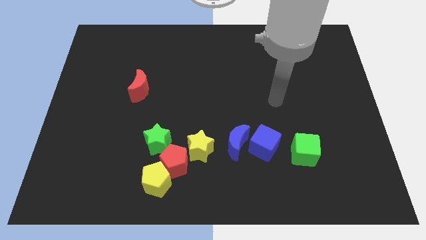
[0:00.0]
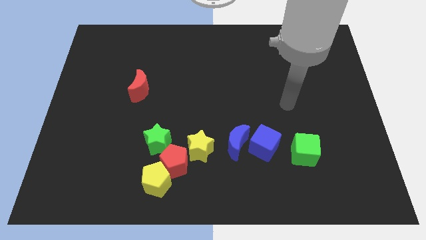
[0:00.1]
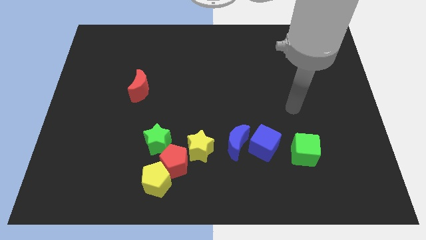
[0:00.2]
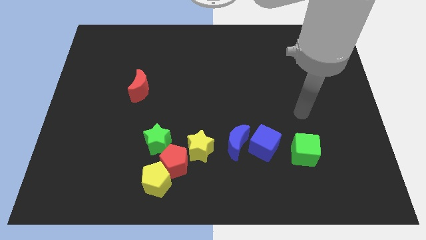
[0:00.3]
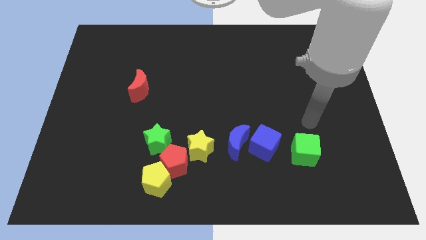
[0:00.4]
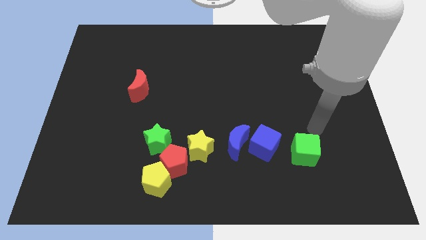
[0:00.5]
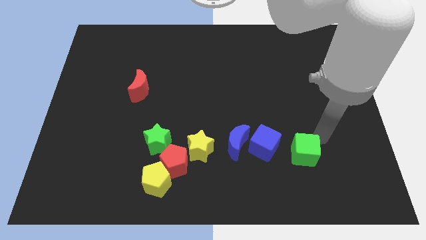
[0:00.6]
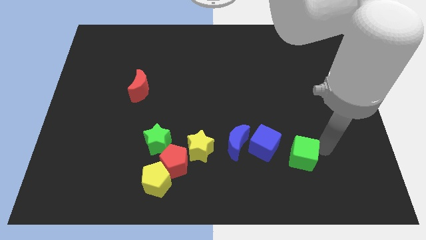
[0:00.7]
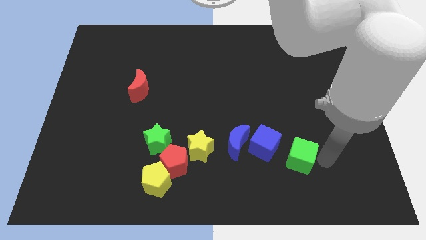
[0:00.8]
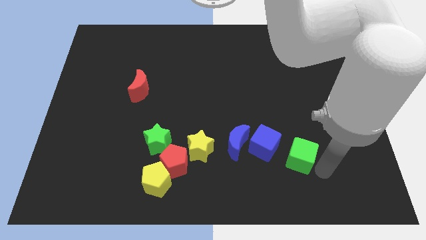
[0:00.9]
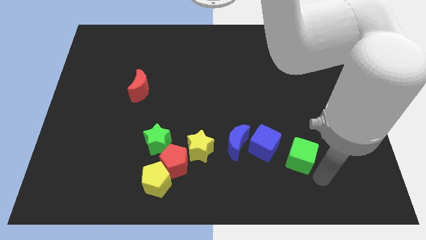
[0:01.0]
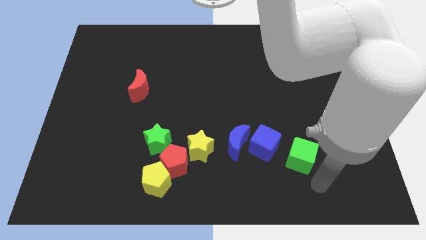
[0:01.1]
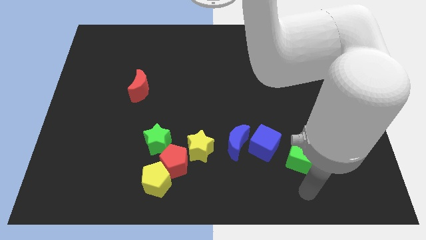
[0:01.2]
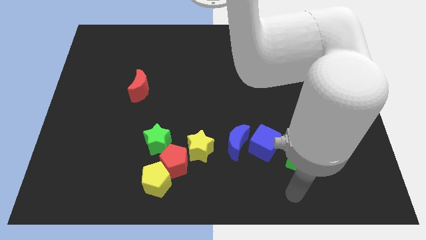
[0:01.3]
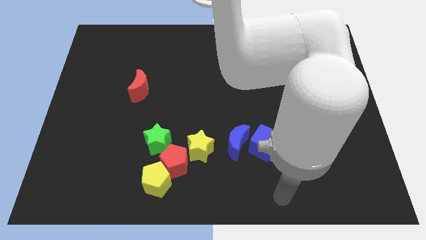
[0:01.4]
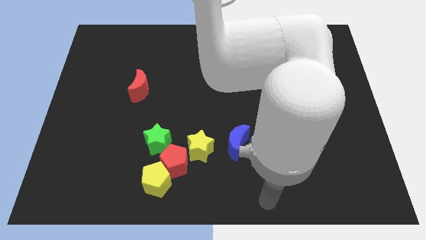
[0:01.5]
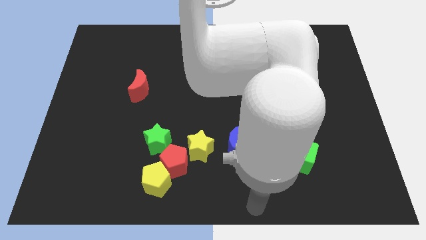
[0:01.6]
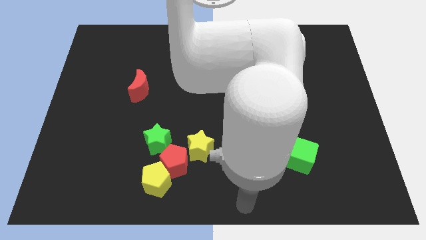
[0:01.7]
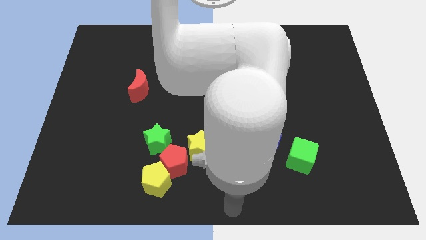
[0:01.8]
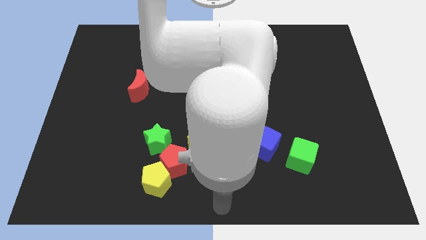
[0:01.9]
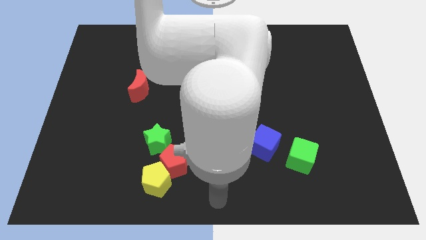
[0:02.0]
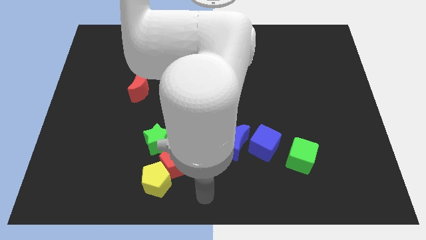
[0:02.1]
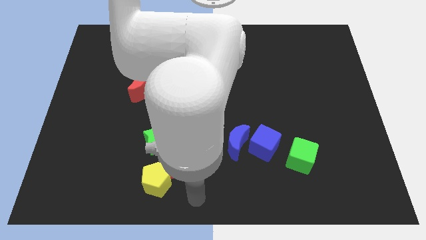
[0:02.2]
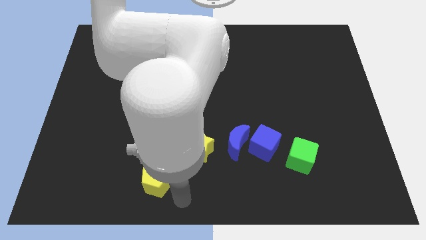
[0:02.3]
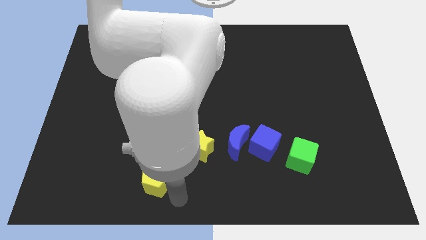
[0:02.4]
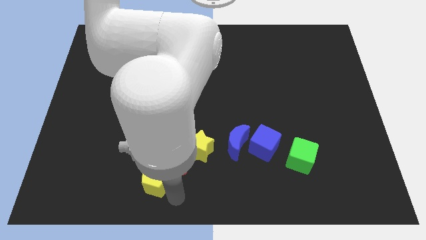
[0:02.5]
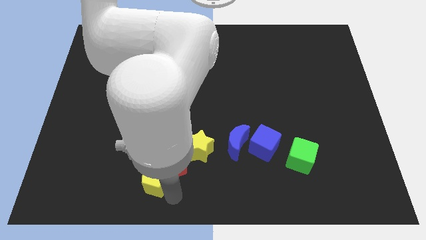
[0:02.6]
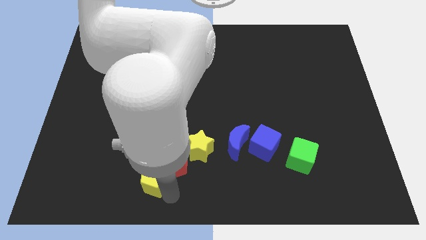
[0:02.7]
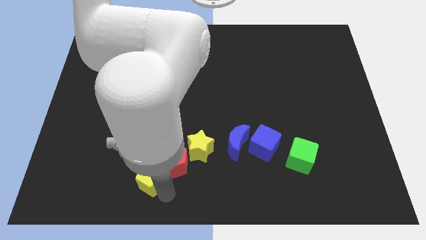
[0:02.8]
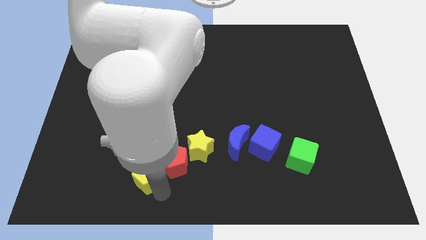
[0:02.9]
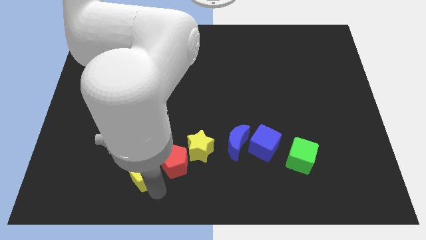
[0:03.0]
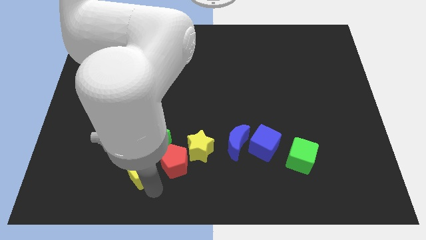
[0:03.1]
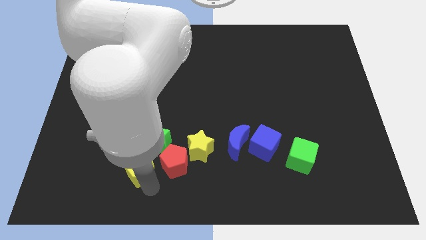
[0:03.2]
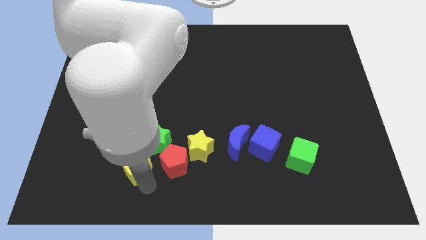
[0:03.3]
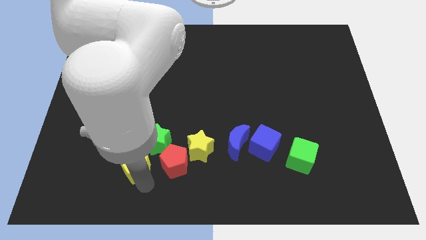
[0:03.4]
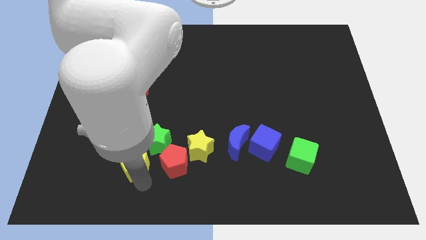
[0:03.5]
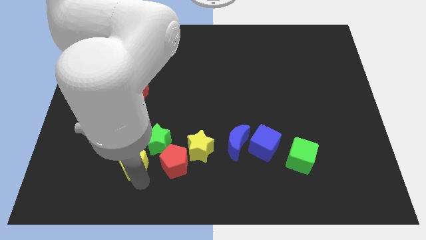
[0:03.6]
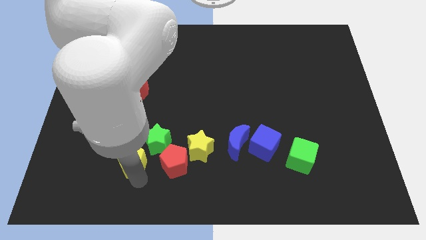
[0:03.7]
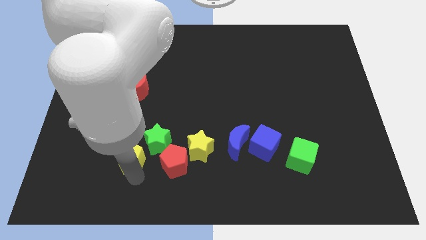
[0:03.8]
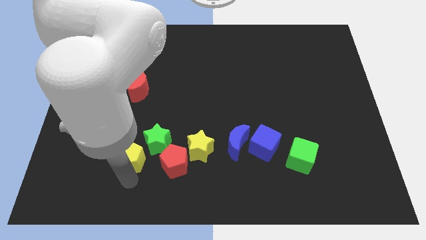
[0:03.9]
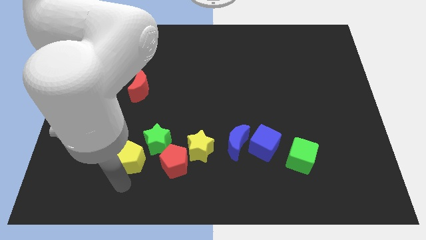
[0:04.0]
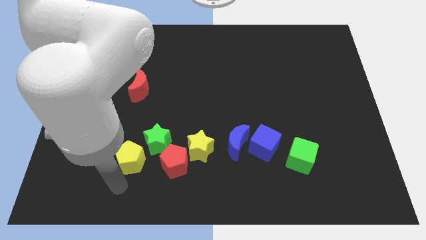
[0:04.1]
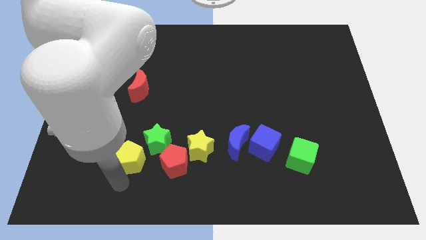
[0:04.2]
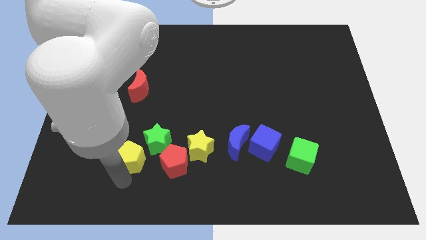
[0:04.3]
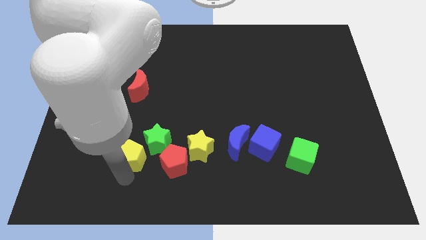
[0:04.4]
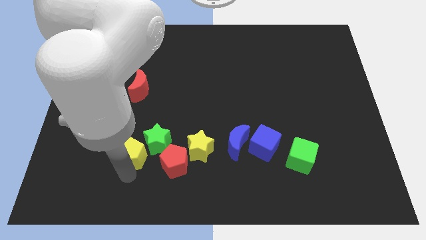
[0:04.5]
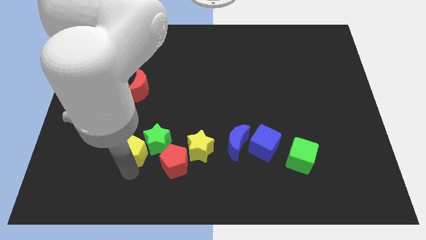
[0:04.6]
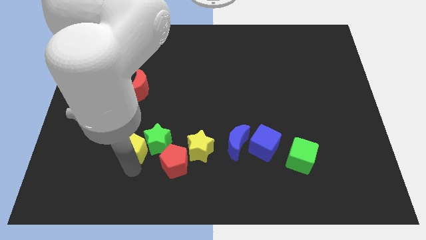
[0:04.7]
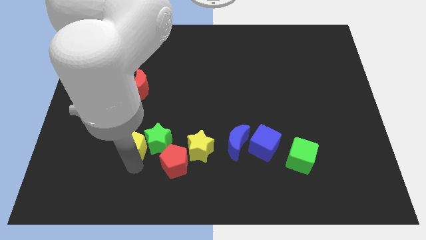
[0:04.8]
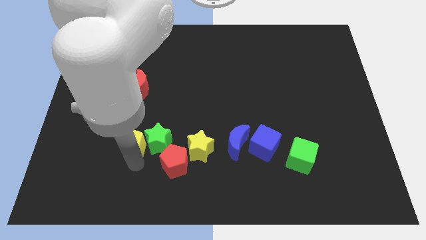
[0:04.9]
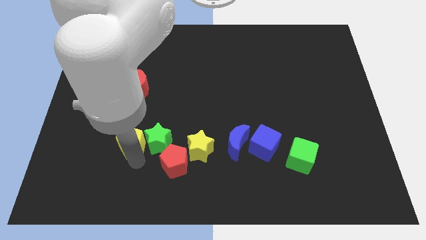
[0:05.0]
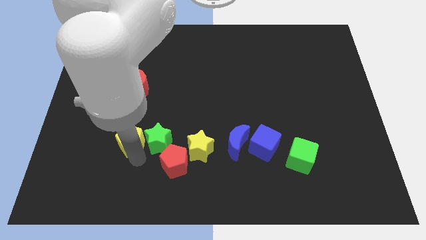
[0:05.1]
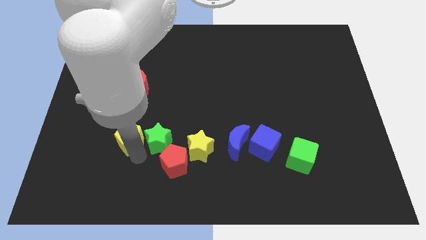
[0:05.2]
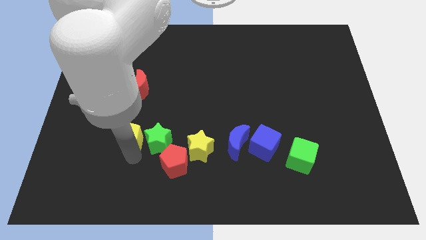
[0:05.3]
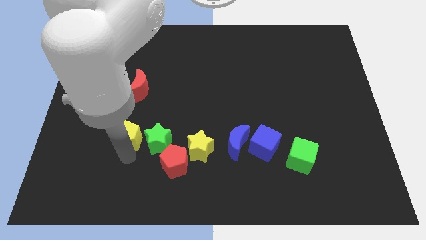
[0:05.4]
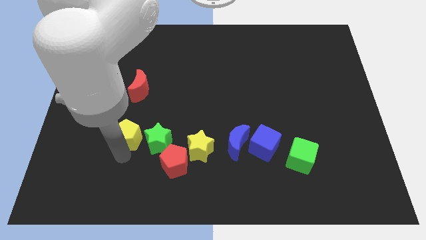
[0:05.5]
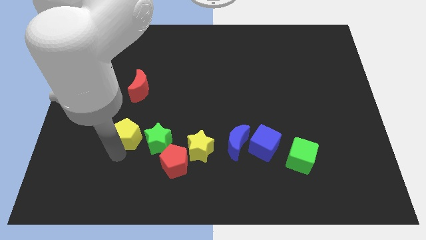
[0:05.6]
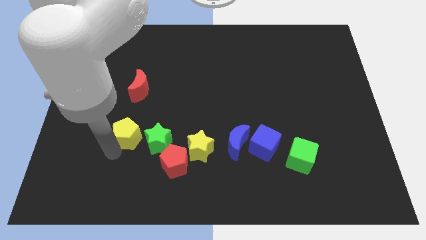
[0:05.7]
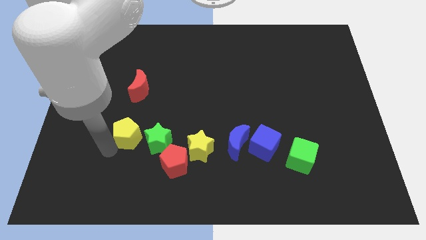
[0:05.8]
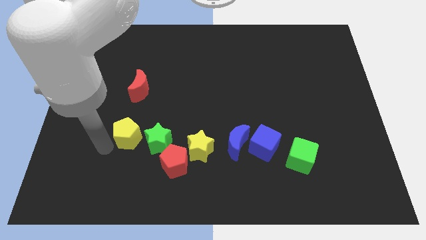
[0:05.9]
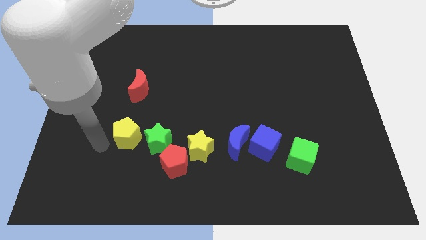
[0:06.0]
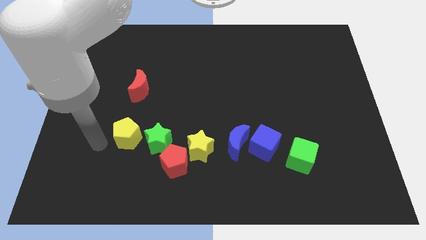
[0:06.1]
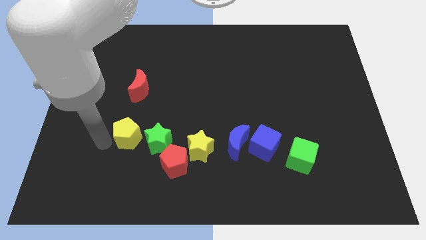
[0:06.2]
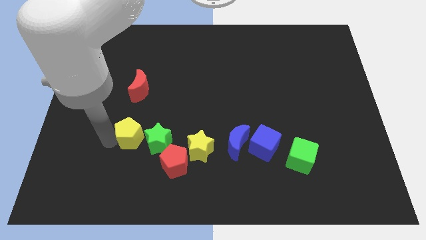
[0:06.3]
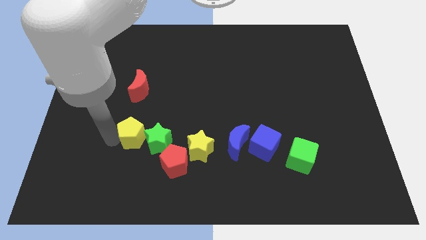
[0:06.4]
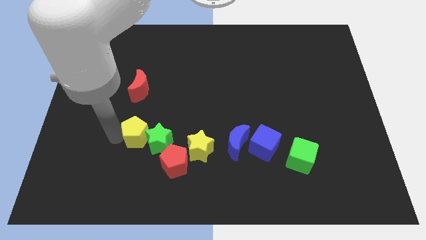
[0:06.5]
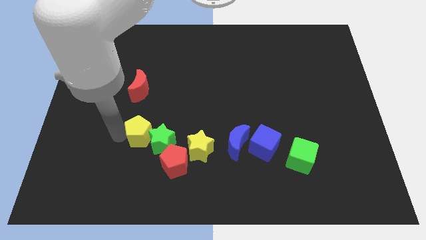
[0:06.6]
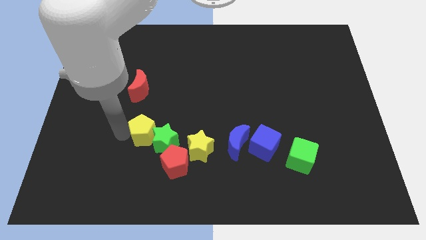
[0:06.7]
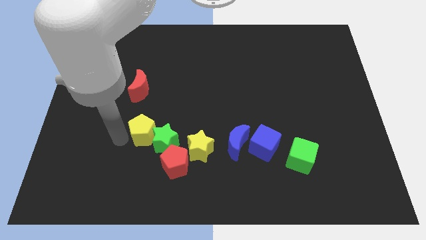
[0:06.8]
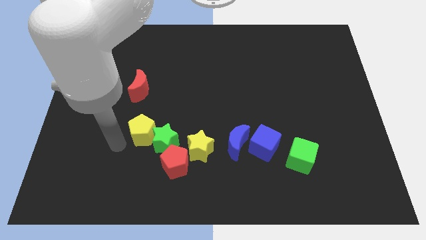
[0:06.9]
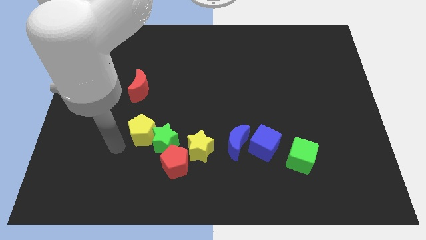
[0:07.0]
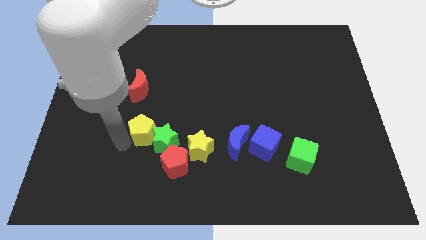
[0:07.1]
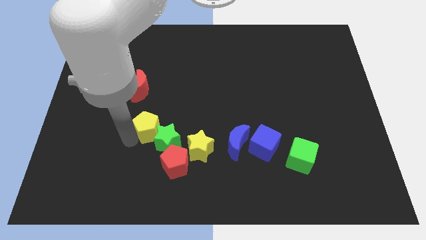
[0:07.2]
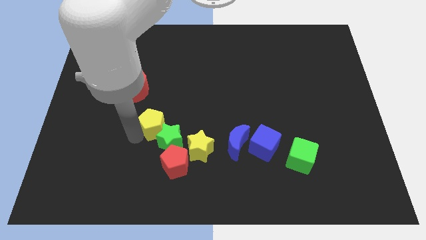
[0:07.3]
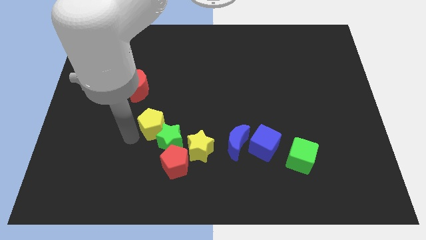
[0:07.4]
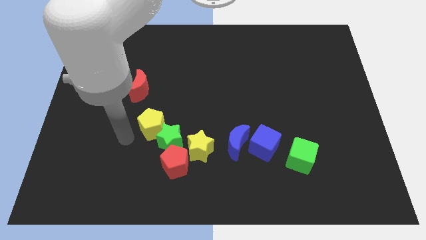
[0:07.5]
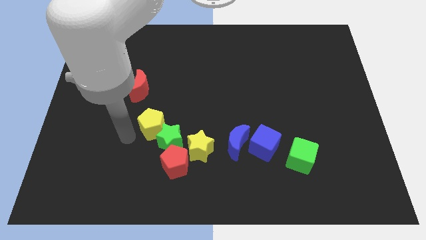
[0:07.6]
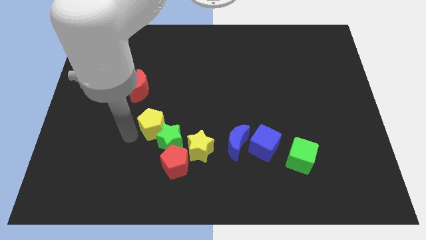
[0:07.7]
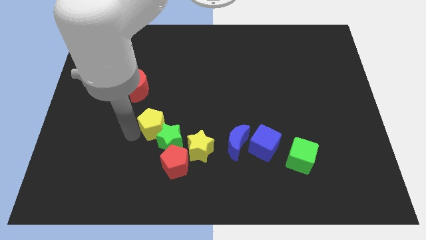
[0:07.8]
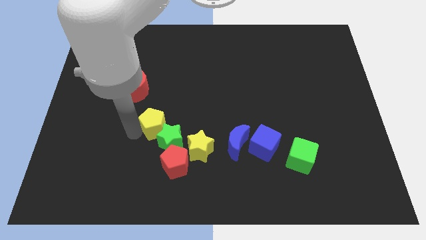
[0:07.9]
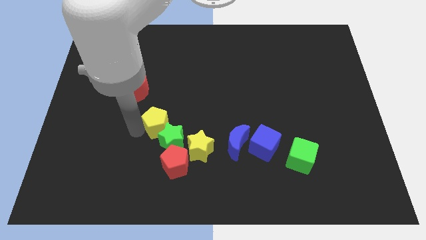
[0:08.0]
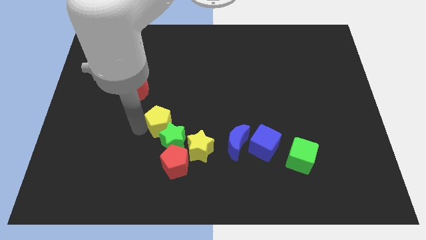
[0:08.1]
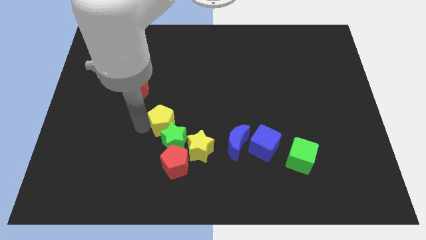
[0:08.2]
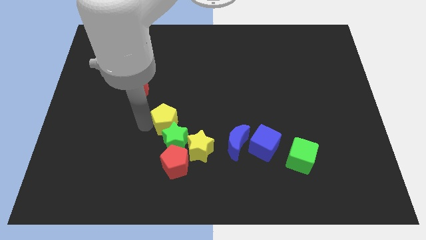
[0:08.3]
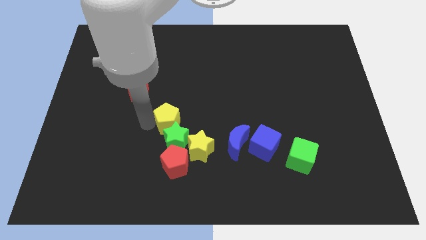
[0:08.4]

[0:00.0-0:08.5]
slightly slide the yellow pentagon up and to the right
